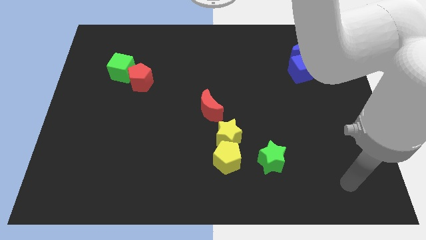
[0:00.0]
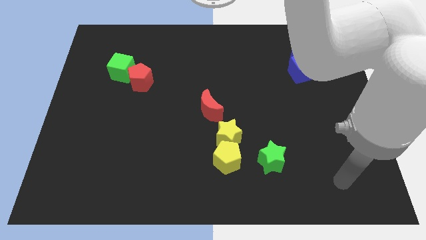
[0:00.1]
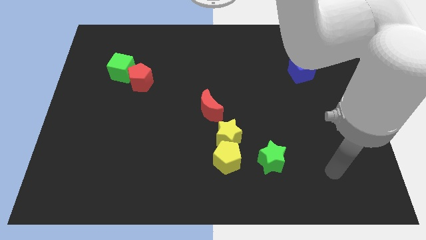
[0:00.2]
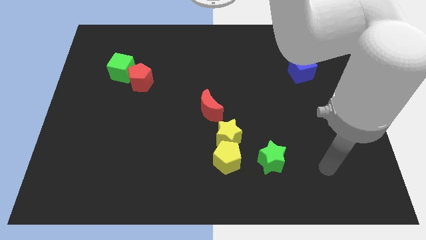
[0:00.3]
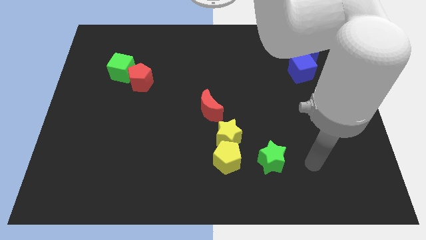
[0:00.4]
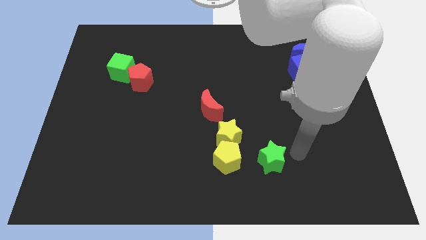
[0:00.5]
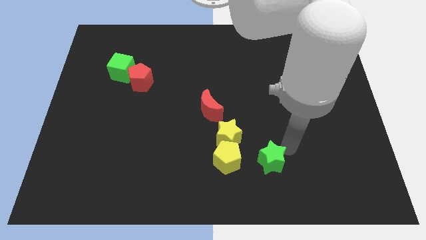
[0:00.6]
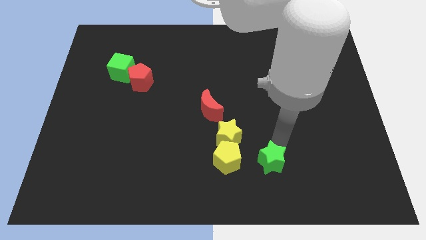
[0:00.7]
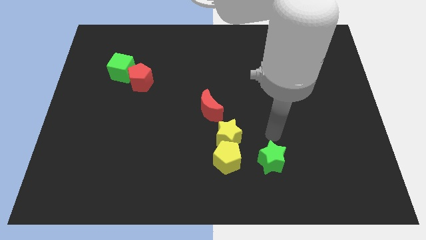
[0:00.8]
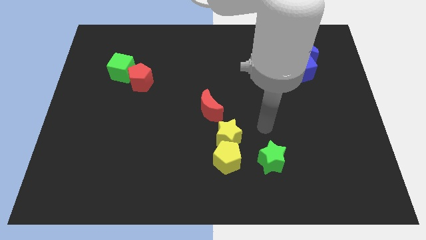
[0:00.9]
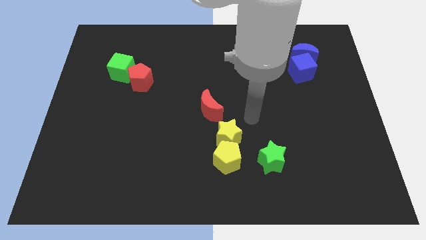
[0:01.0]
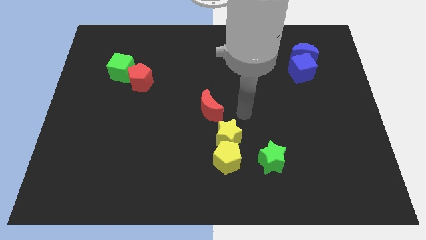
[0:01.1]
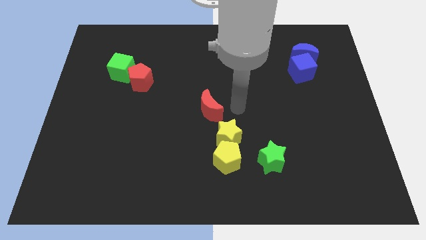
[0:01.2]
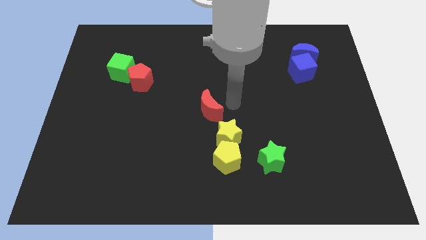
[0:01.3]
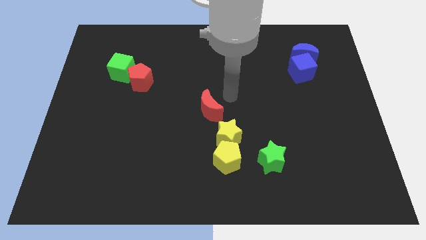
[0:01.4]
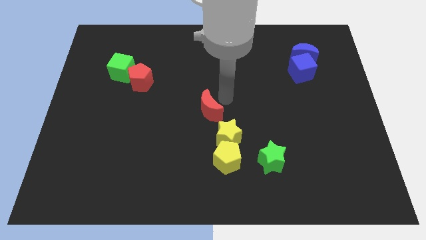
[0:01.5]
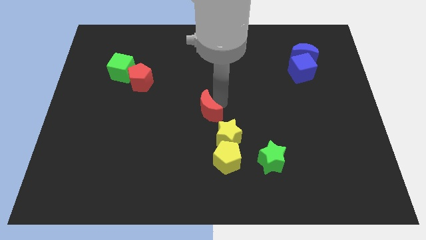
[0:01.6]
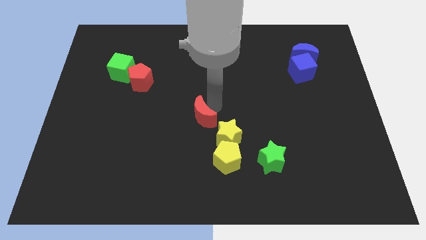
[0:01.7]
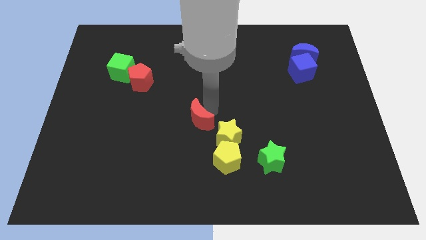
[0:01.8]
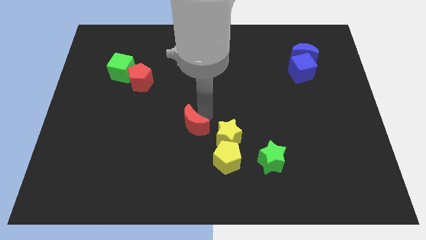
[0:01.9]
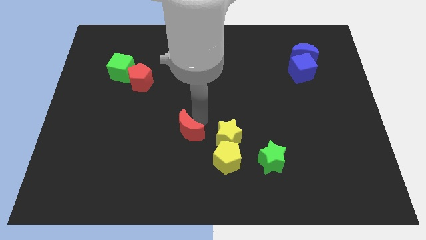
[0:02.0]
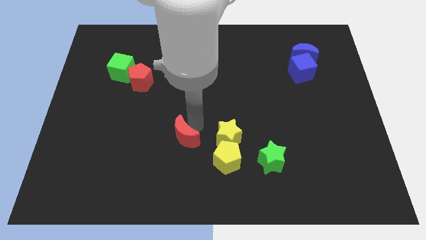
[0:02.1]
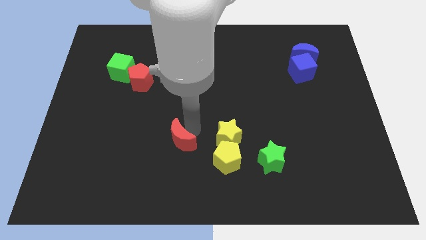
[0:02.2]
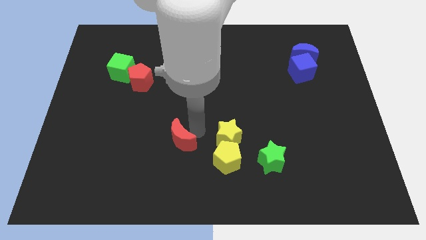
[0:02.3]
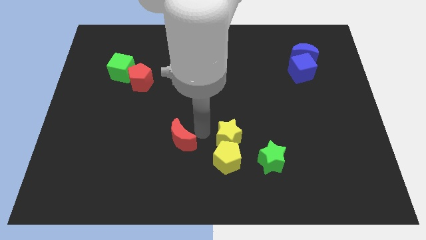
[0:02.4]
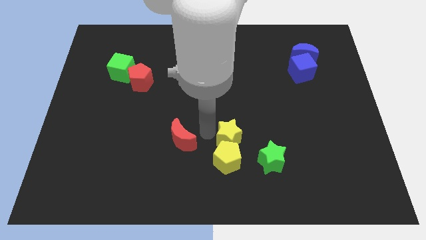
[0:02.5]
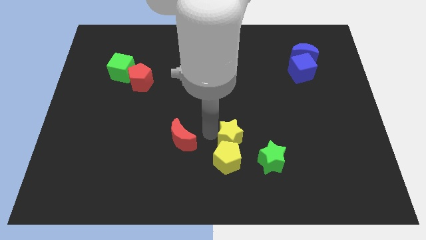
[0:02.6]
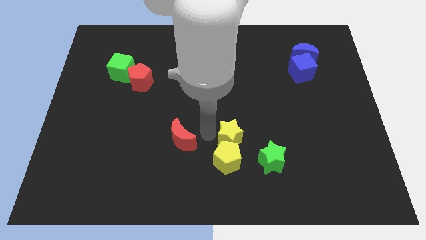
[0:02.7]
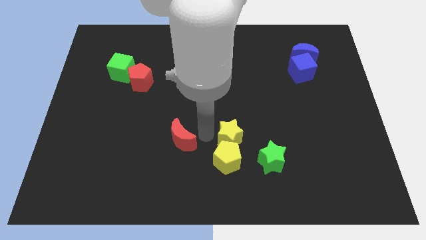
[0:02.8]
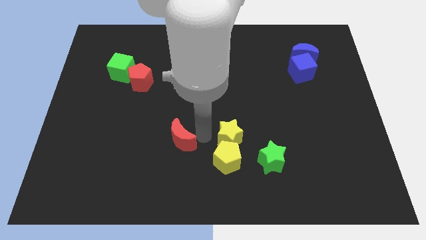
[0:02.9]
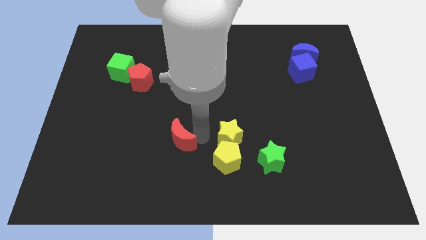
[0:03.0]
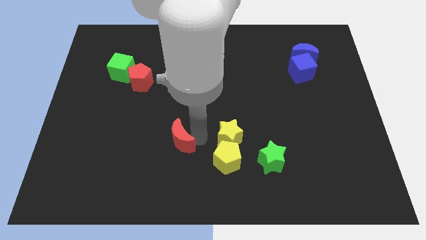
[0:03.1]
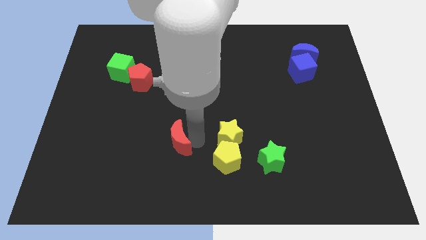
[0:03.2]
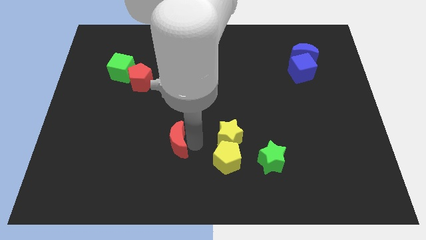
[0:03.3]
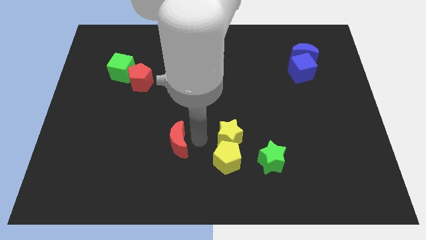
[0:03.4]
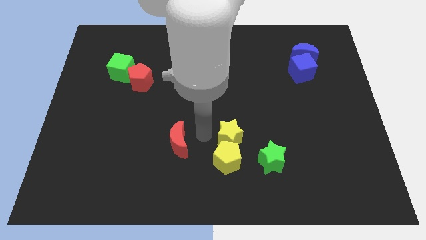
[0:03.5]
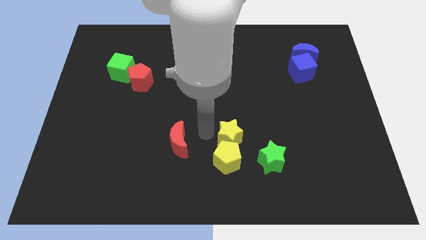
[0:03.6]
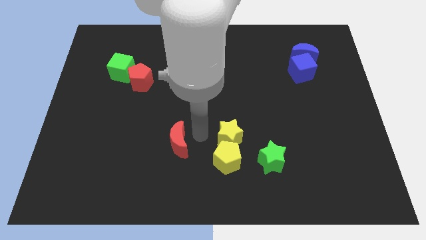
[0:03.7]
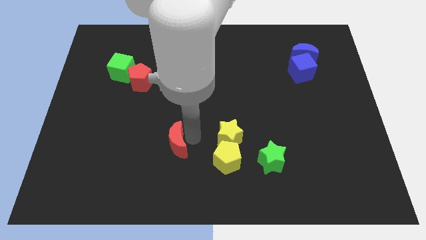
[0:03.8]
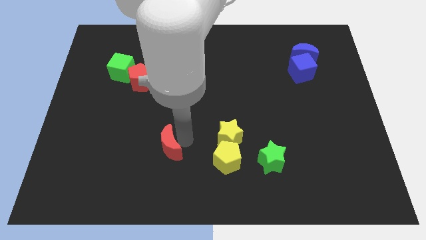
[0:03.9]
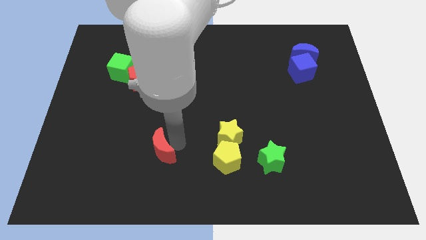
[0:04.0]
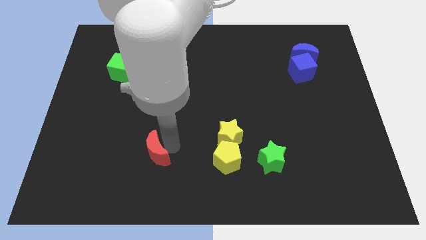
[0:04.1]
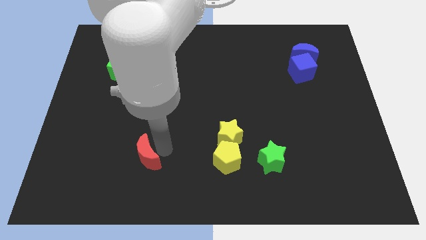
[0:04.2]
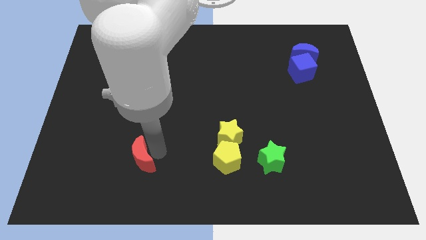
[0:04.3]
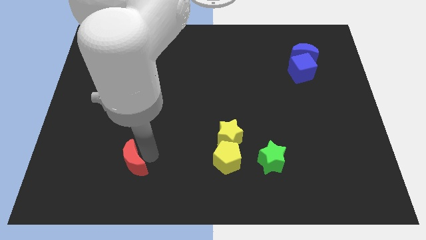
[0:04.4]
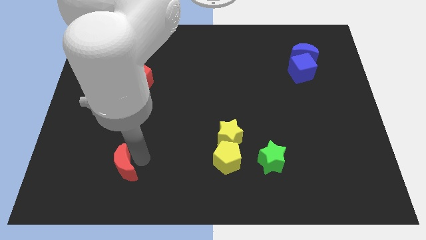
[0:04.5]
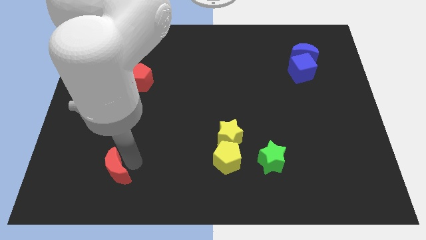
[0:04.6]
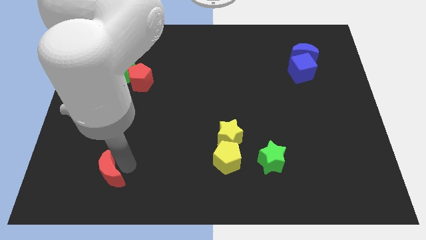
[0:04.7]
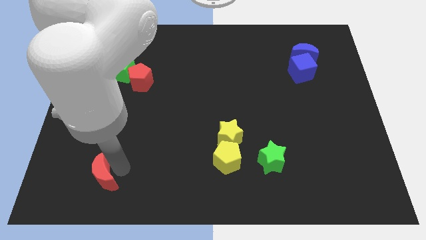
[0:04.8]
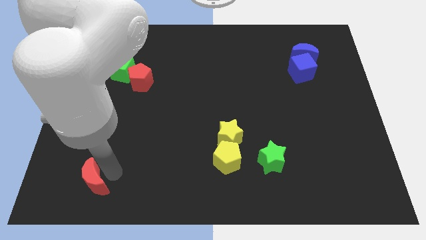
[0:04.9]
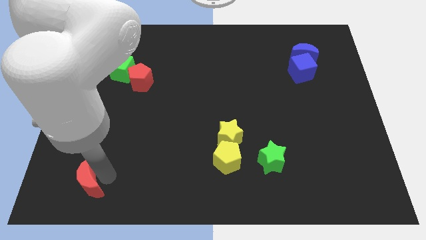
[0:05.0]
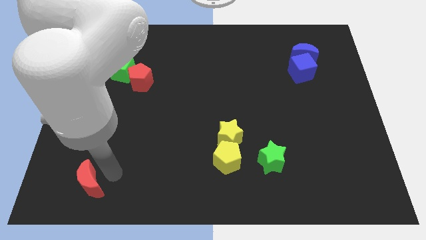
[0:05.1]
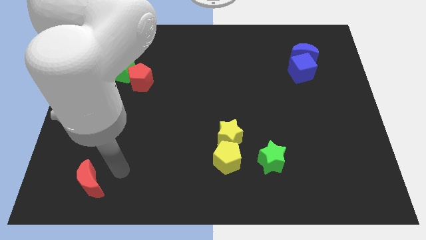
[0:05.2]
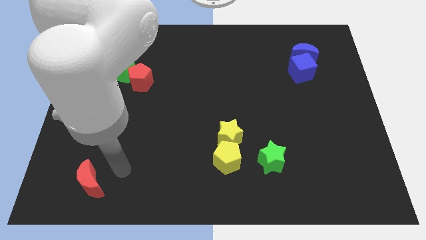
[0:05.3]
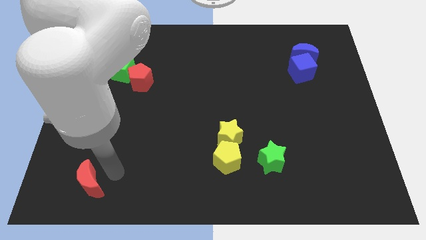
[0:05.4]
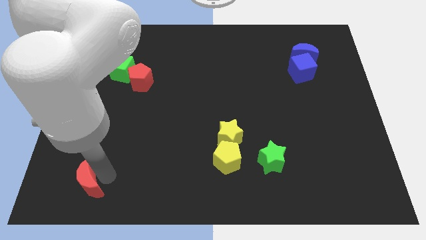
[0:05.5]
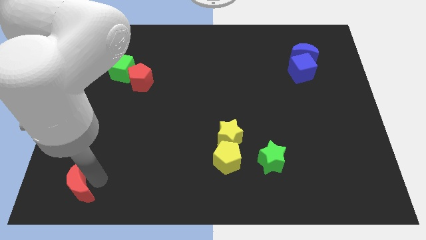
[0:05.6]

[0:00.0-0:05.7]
push the red moon to the lower left corner

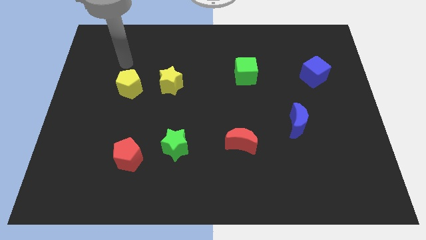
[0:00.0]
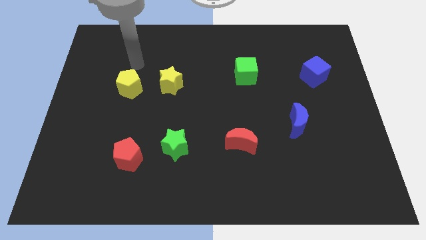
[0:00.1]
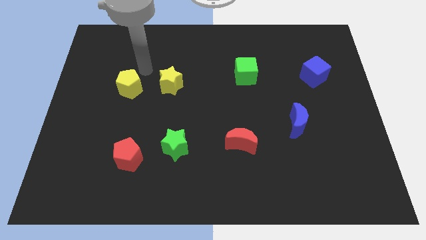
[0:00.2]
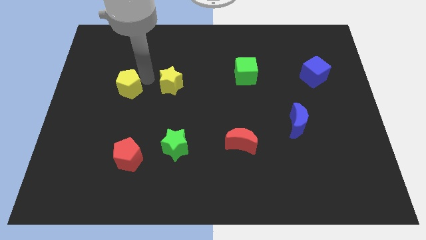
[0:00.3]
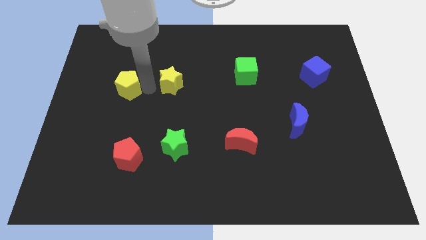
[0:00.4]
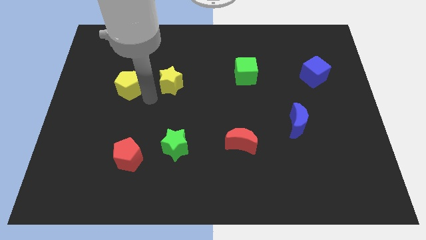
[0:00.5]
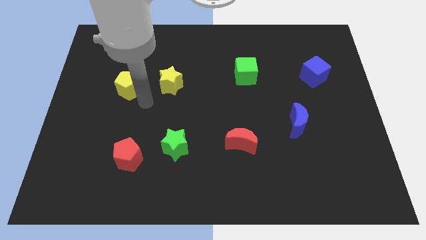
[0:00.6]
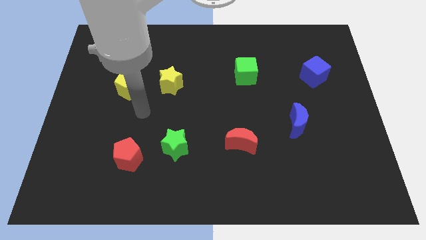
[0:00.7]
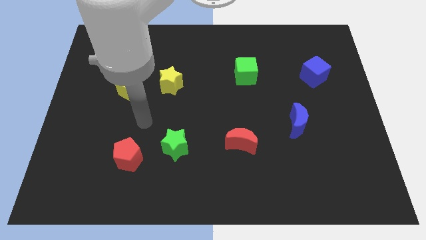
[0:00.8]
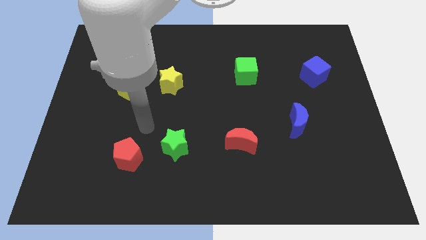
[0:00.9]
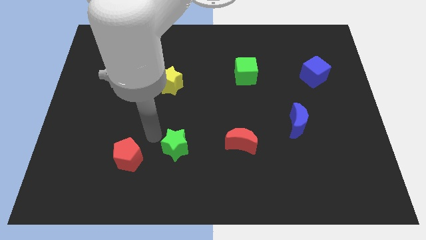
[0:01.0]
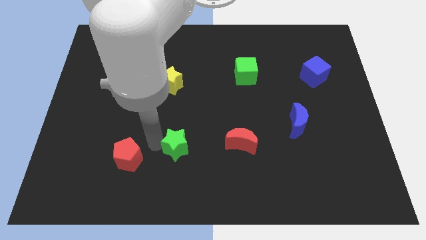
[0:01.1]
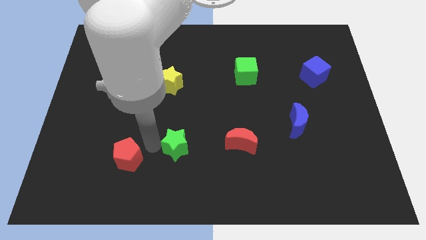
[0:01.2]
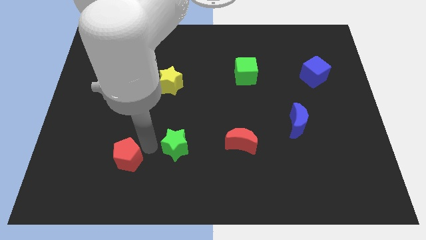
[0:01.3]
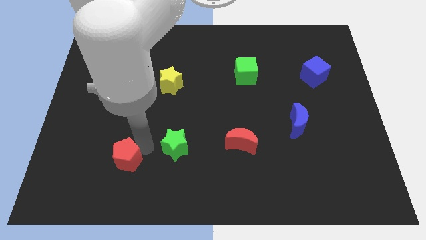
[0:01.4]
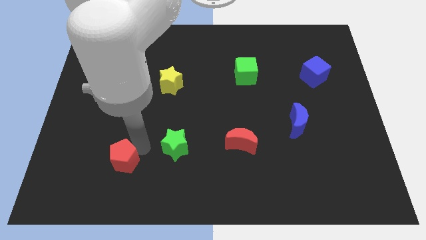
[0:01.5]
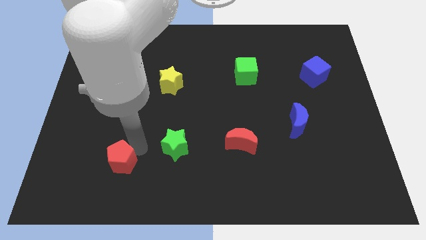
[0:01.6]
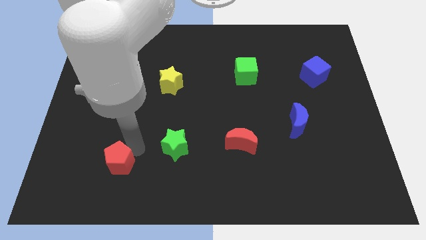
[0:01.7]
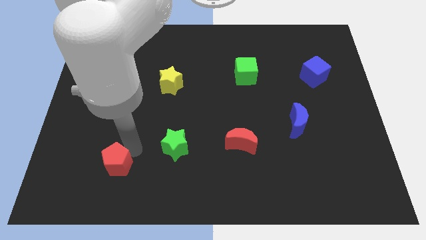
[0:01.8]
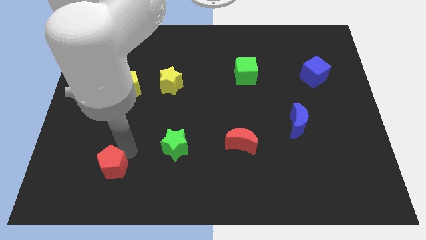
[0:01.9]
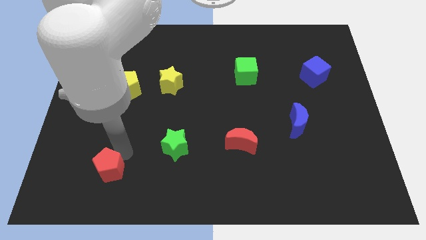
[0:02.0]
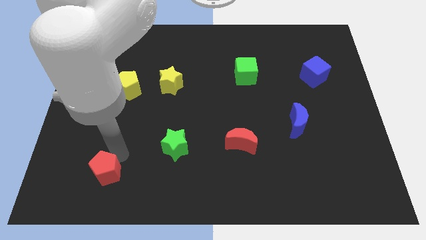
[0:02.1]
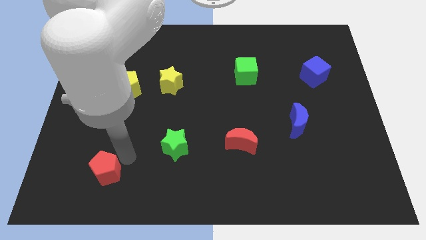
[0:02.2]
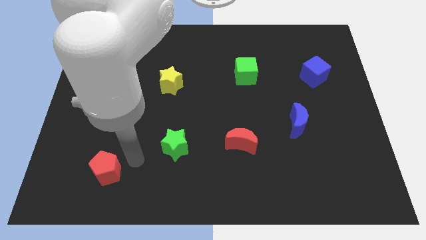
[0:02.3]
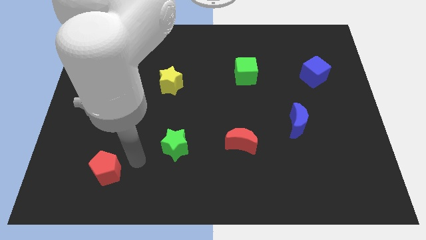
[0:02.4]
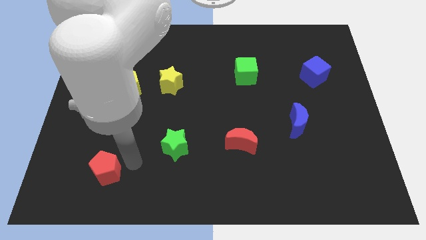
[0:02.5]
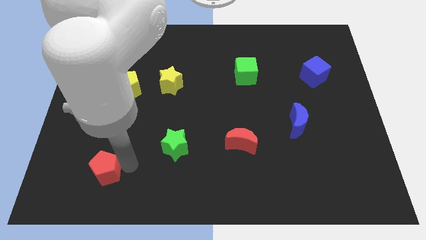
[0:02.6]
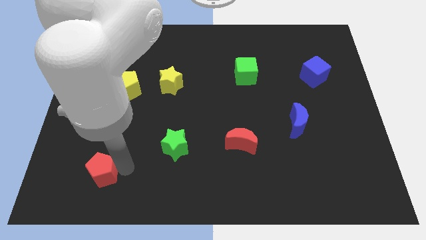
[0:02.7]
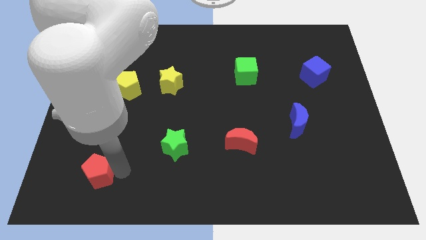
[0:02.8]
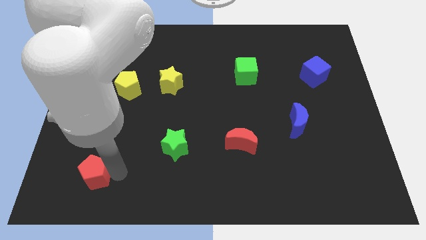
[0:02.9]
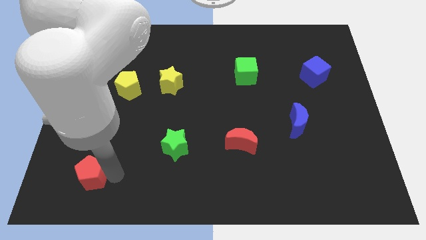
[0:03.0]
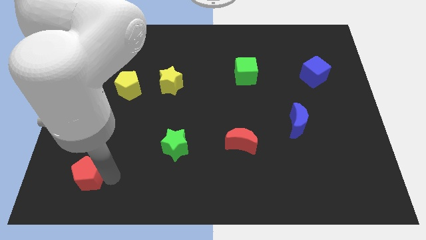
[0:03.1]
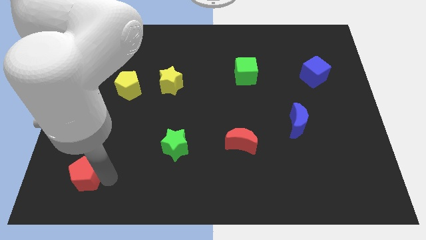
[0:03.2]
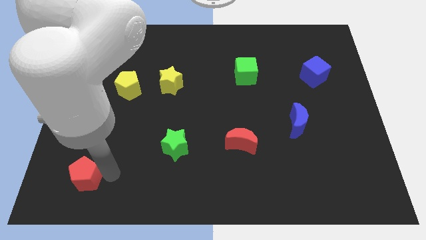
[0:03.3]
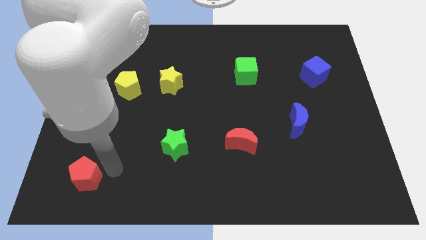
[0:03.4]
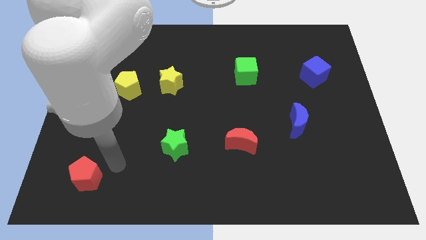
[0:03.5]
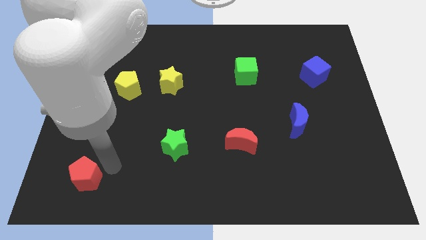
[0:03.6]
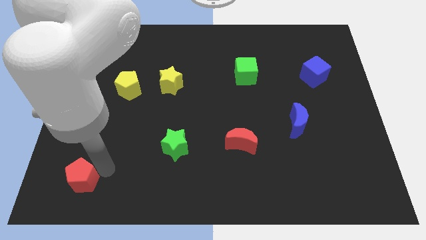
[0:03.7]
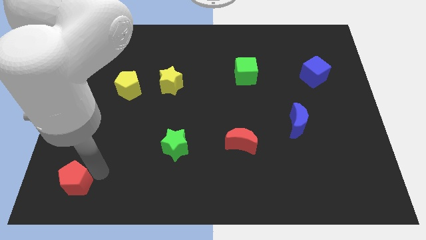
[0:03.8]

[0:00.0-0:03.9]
slide the red pentagon to the bottom left of the board
